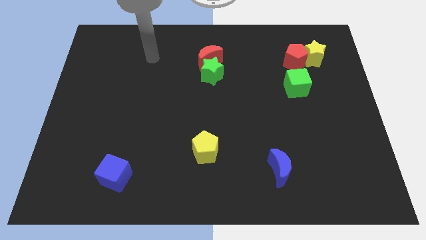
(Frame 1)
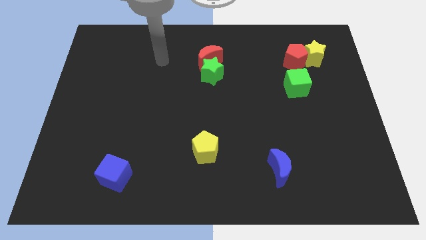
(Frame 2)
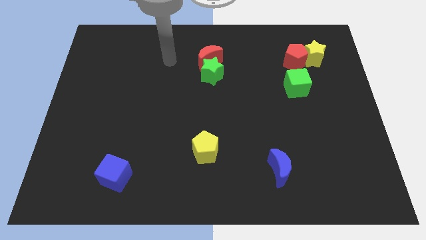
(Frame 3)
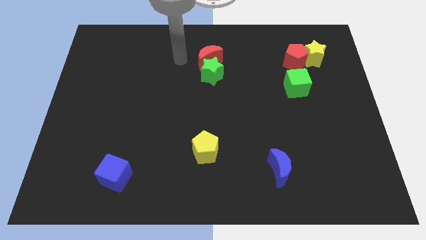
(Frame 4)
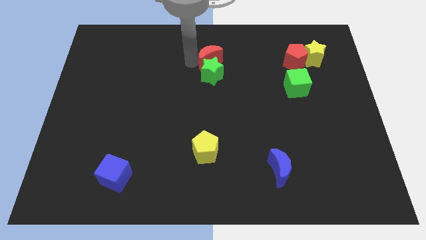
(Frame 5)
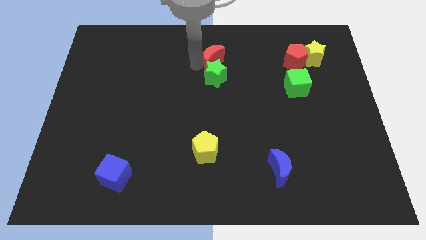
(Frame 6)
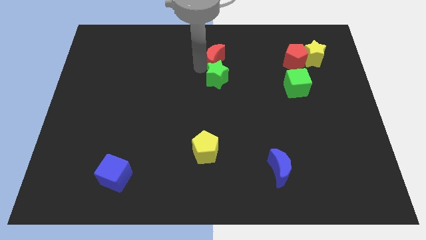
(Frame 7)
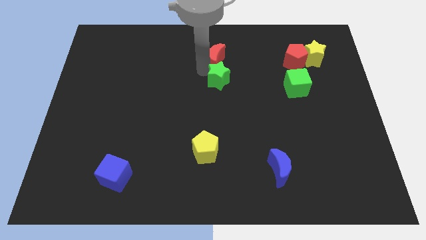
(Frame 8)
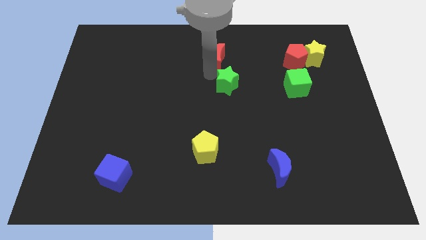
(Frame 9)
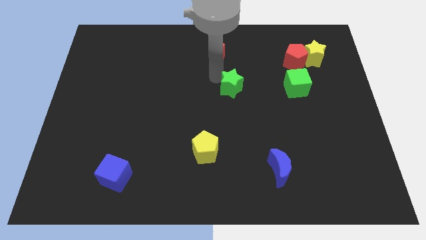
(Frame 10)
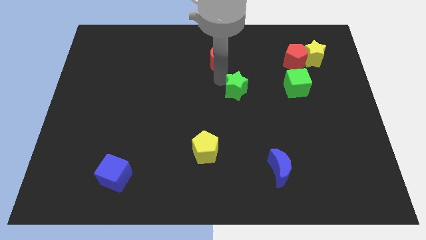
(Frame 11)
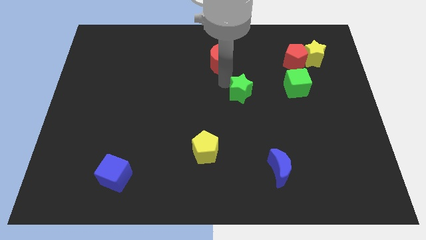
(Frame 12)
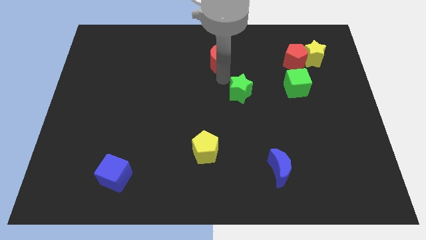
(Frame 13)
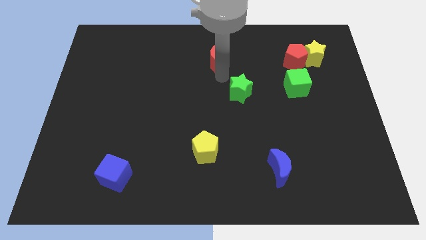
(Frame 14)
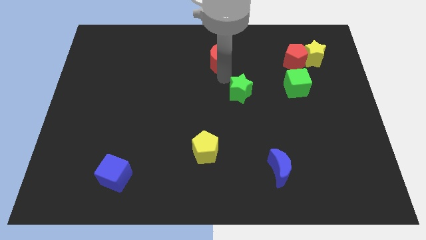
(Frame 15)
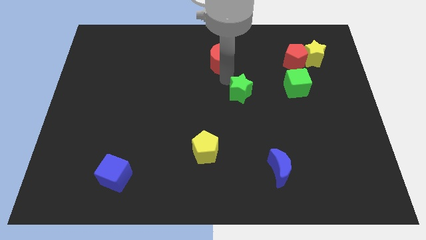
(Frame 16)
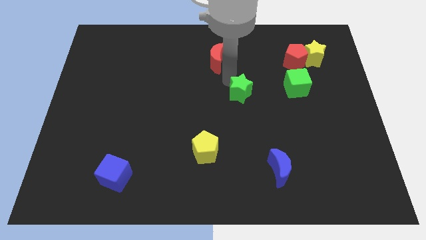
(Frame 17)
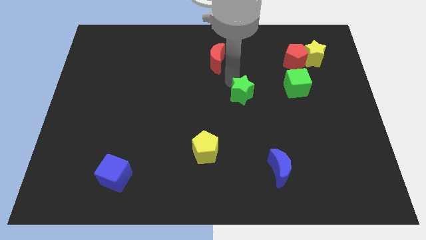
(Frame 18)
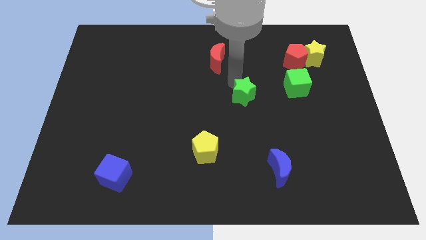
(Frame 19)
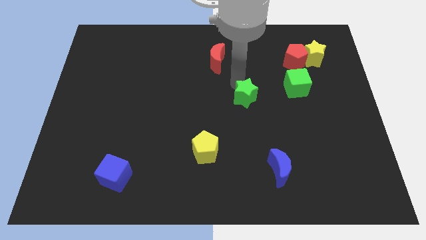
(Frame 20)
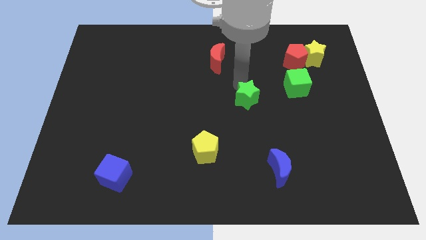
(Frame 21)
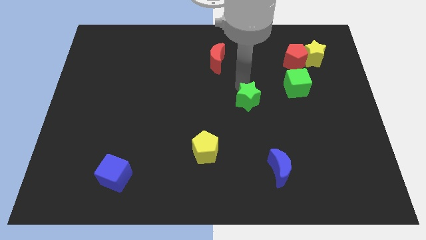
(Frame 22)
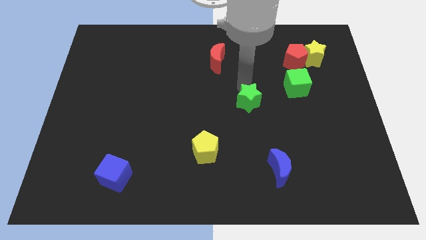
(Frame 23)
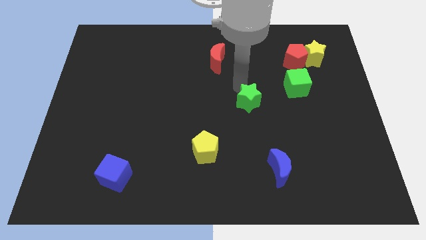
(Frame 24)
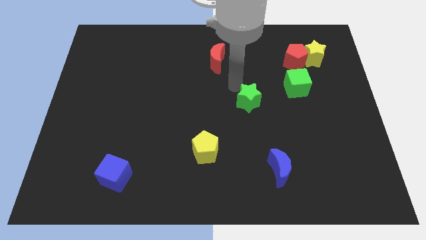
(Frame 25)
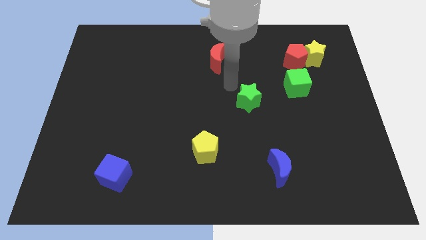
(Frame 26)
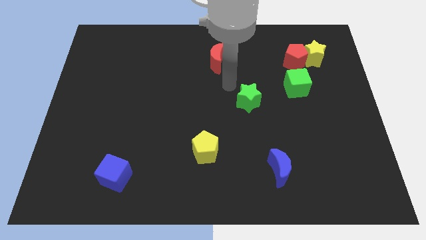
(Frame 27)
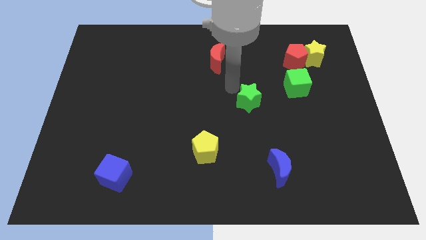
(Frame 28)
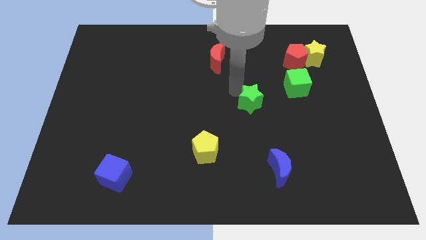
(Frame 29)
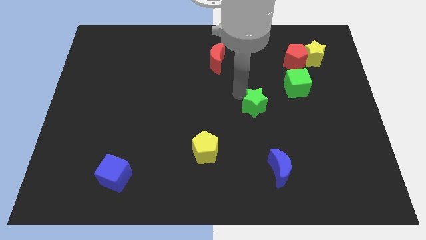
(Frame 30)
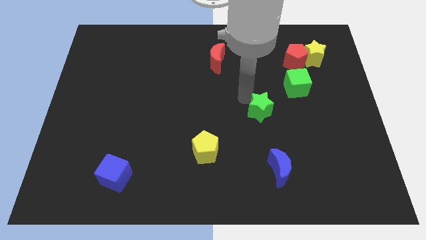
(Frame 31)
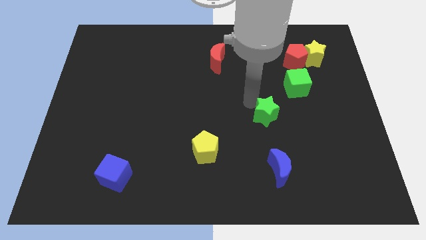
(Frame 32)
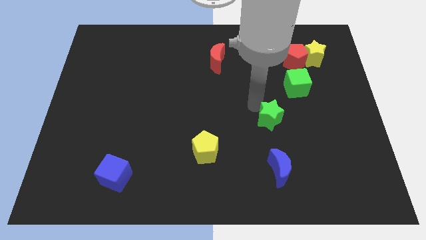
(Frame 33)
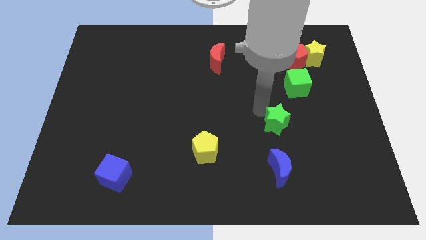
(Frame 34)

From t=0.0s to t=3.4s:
move the green star diagonally downwards and right

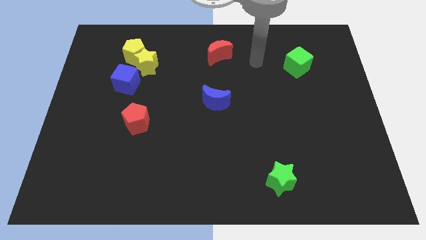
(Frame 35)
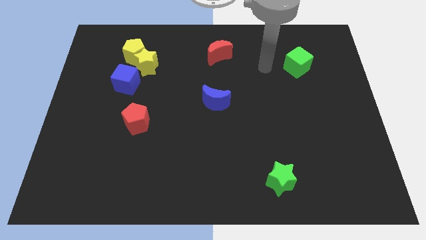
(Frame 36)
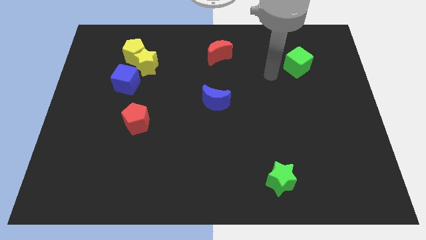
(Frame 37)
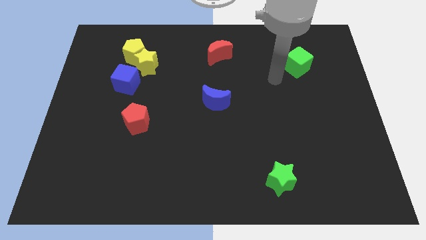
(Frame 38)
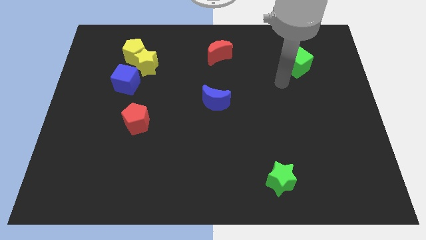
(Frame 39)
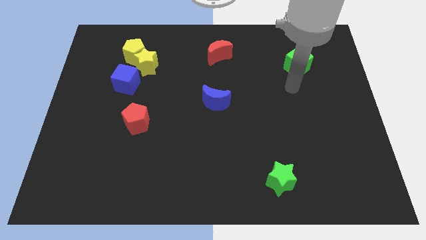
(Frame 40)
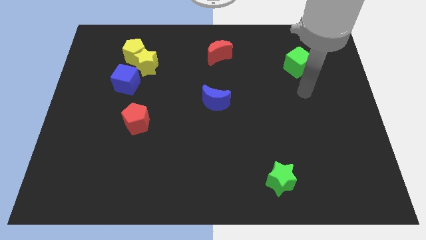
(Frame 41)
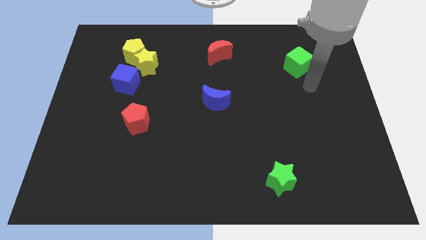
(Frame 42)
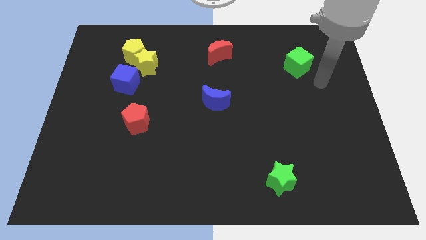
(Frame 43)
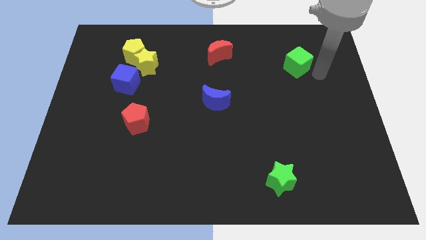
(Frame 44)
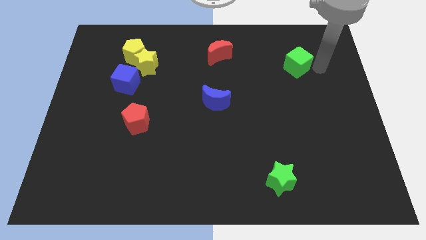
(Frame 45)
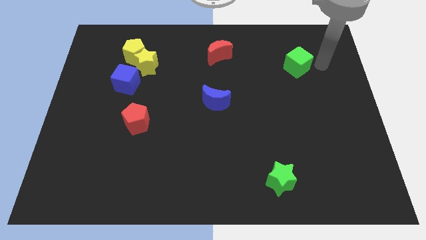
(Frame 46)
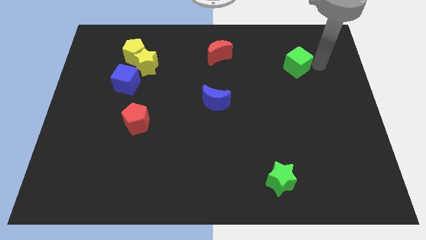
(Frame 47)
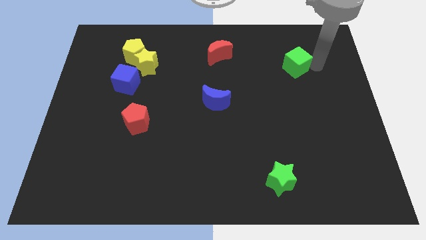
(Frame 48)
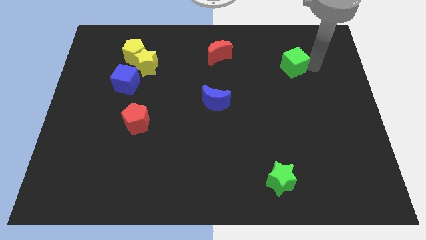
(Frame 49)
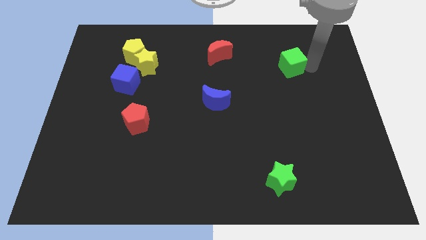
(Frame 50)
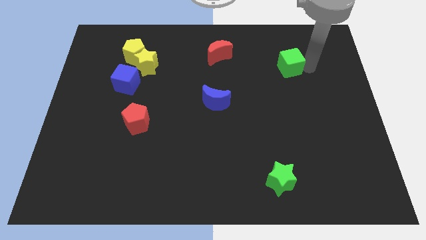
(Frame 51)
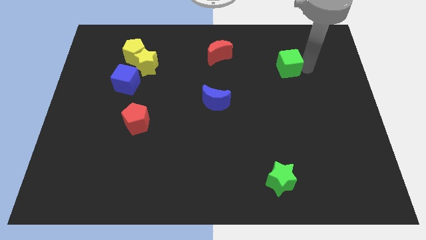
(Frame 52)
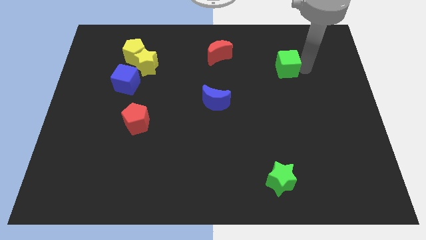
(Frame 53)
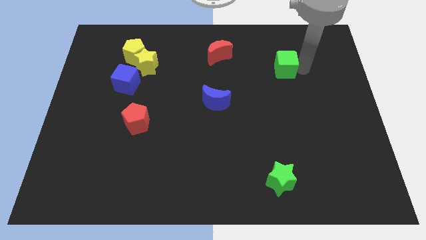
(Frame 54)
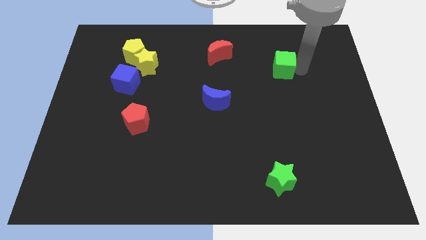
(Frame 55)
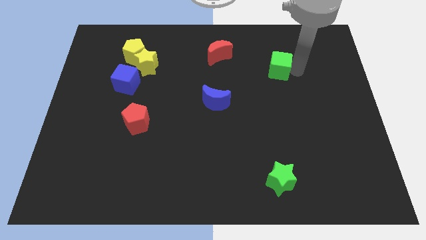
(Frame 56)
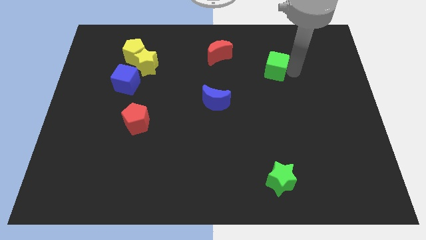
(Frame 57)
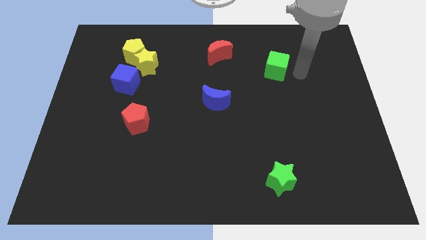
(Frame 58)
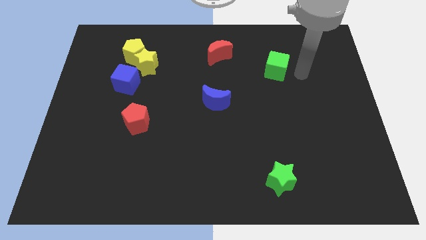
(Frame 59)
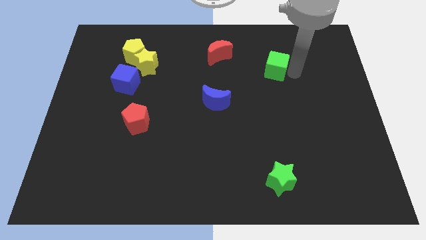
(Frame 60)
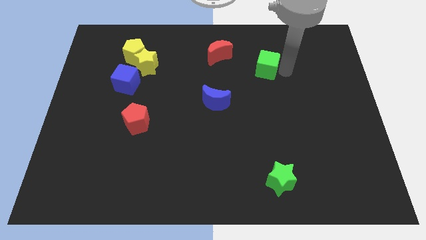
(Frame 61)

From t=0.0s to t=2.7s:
push the green cube left slightly

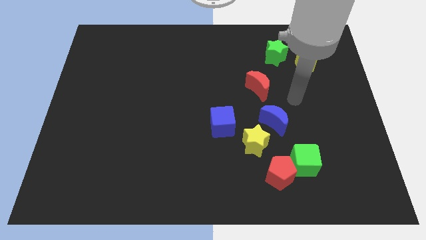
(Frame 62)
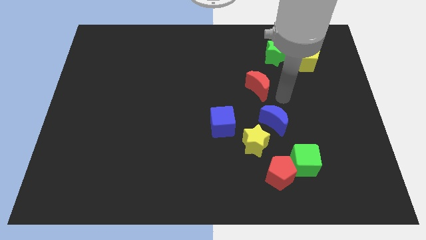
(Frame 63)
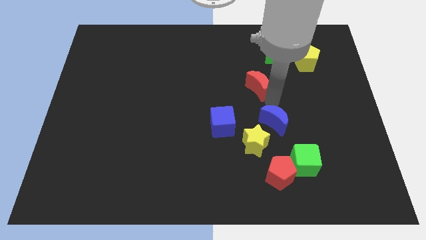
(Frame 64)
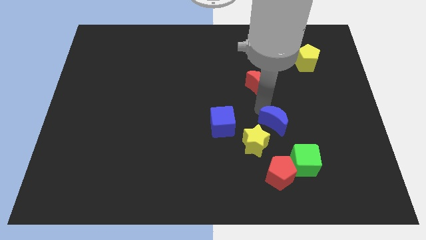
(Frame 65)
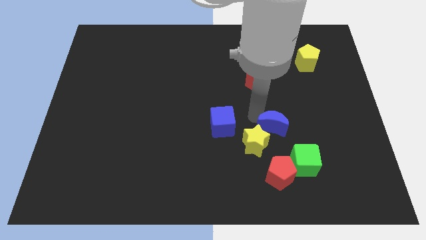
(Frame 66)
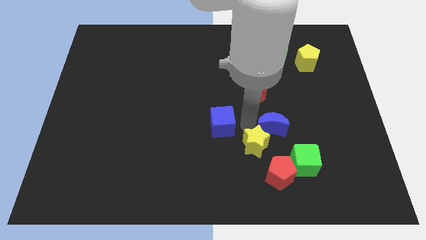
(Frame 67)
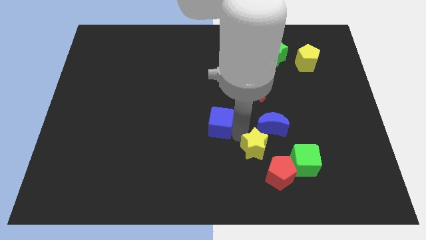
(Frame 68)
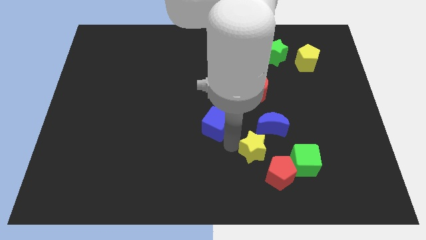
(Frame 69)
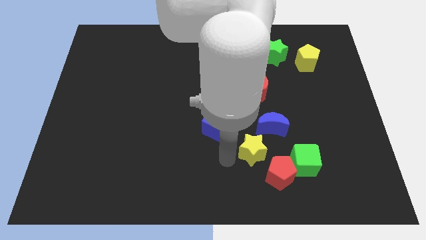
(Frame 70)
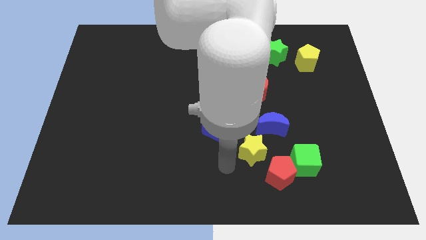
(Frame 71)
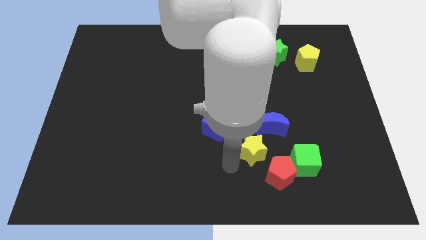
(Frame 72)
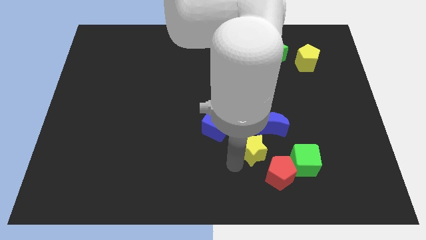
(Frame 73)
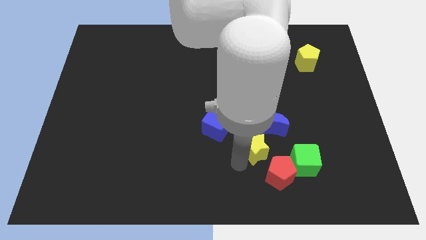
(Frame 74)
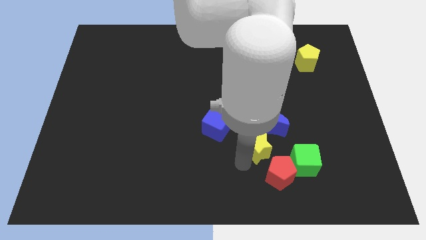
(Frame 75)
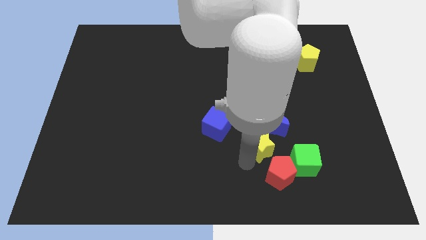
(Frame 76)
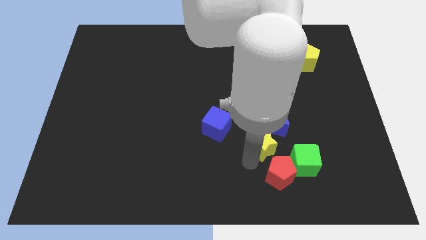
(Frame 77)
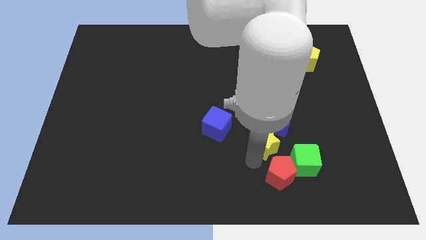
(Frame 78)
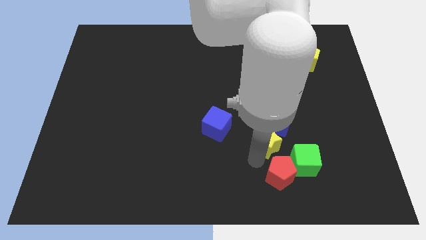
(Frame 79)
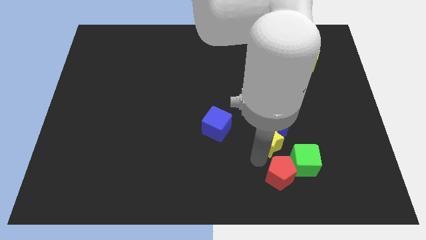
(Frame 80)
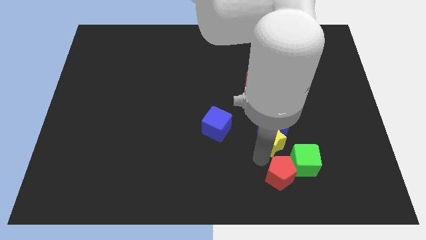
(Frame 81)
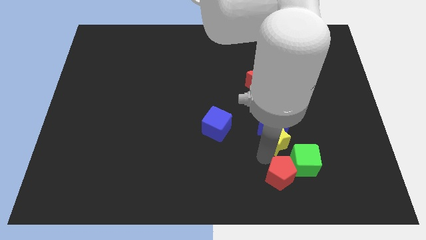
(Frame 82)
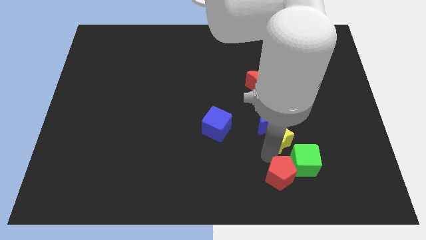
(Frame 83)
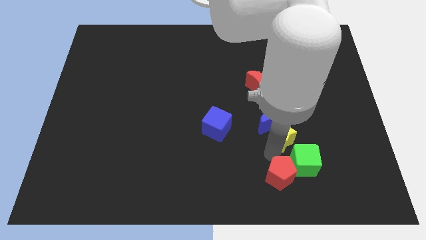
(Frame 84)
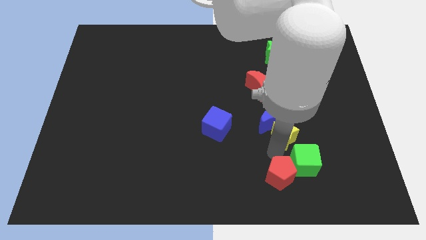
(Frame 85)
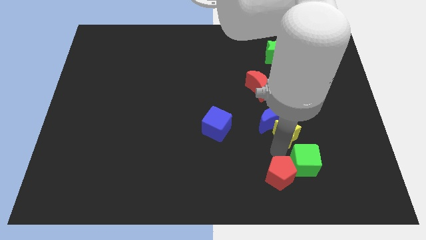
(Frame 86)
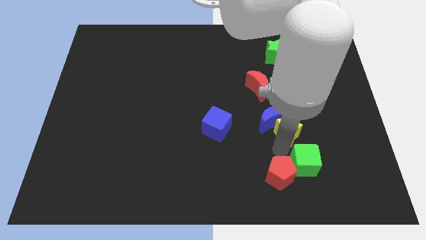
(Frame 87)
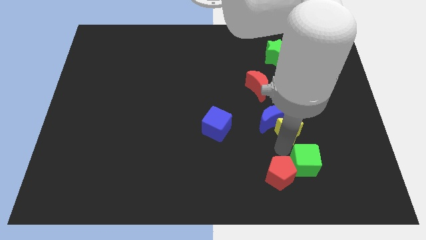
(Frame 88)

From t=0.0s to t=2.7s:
slide the yellow star slightly diagonally upwards and to the right
